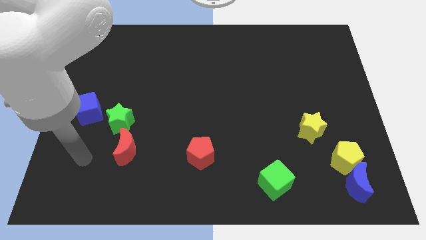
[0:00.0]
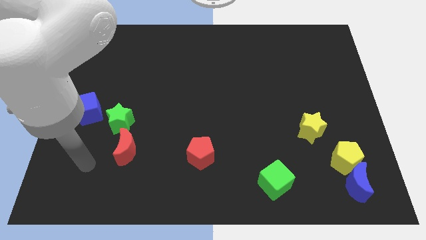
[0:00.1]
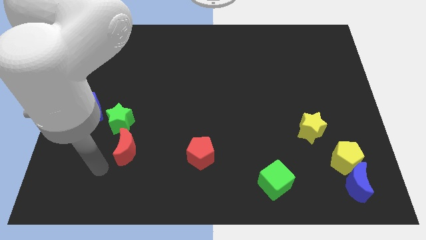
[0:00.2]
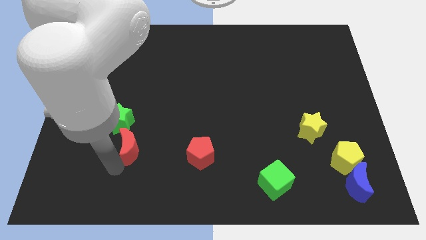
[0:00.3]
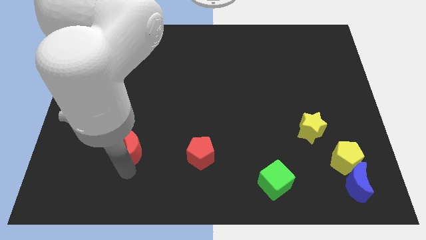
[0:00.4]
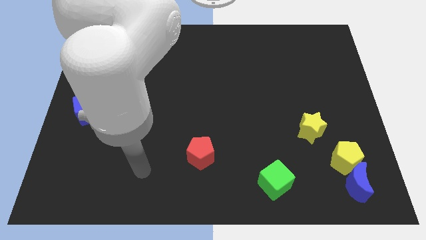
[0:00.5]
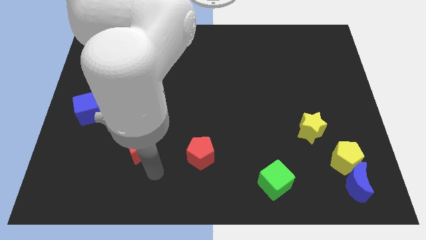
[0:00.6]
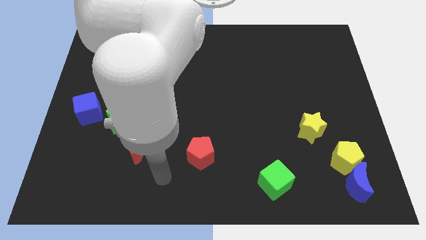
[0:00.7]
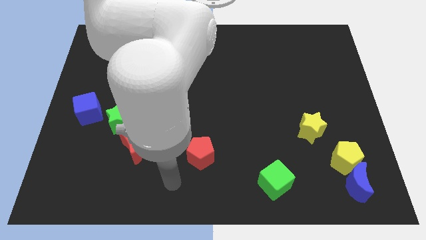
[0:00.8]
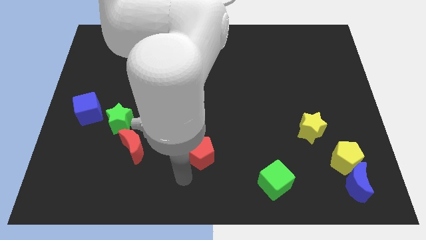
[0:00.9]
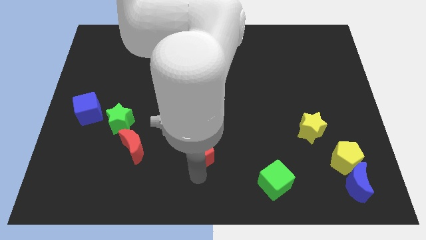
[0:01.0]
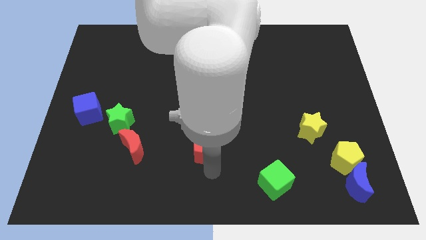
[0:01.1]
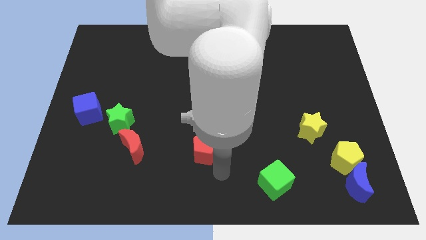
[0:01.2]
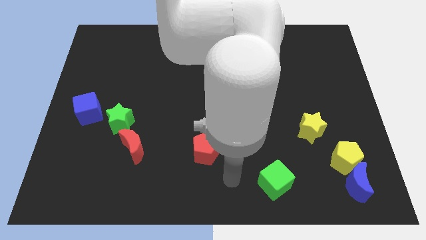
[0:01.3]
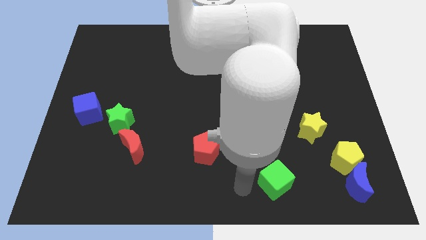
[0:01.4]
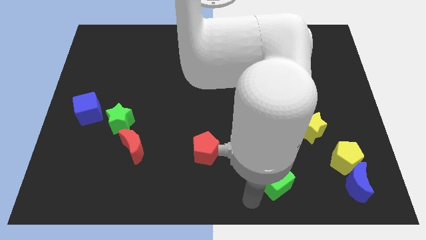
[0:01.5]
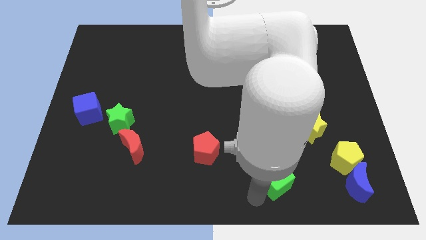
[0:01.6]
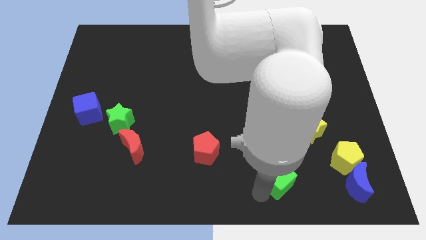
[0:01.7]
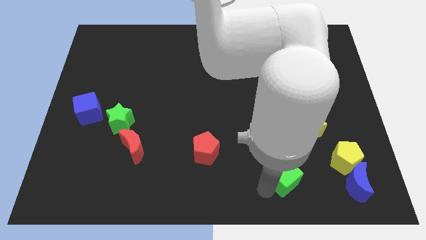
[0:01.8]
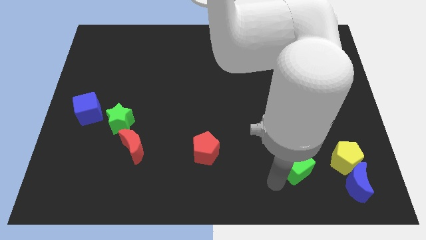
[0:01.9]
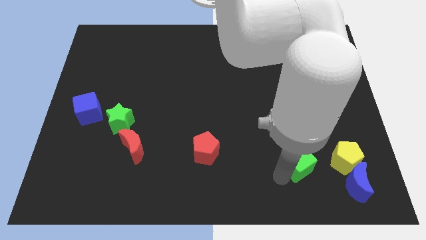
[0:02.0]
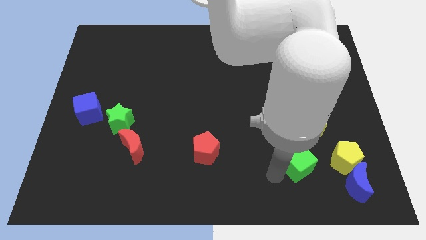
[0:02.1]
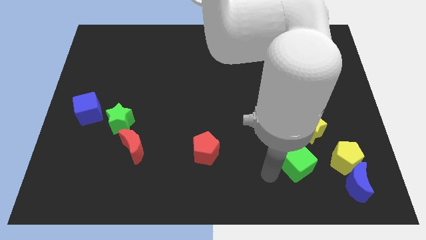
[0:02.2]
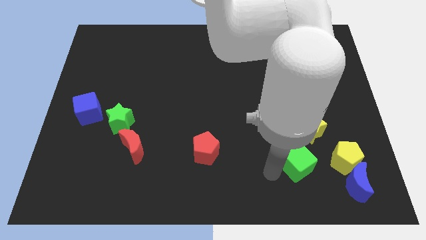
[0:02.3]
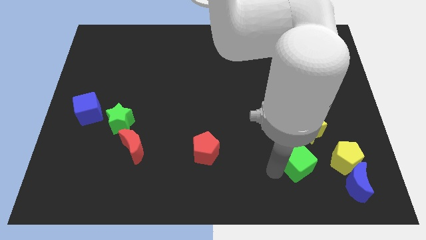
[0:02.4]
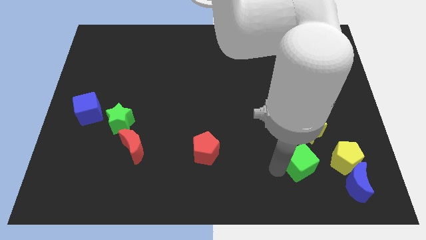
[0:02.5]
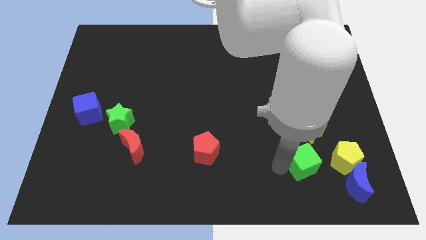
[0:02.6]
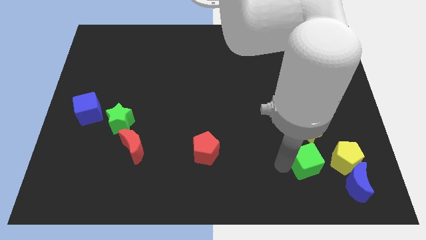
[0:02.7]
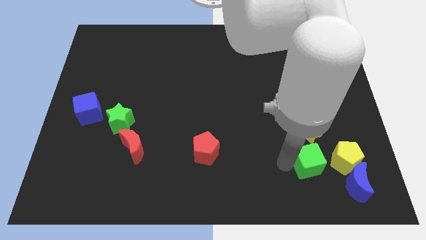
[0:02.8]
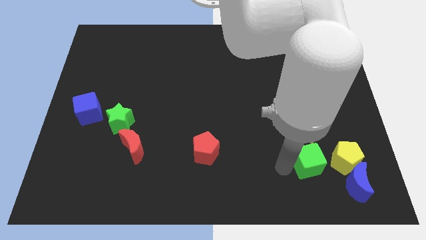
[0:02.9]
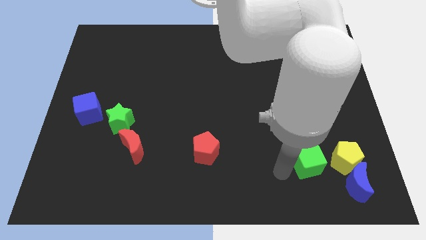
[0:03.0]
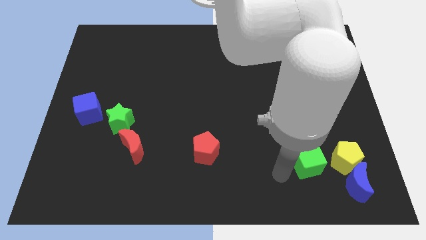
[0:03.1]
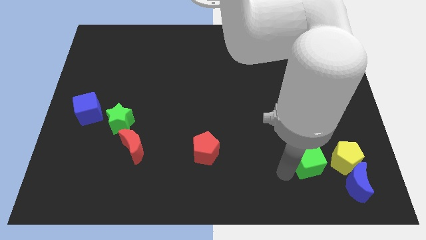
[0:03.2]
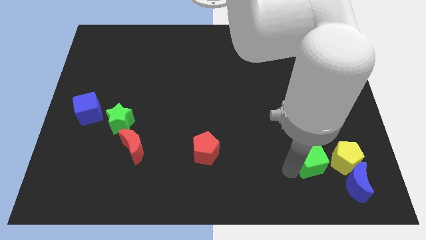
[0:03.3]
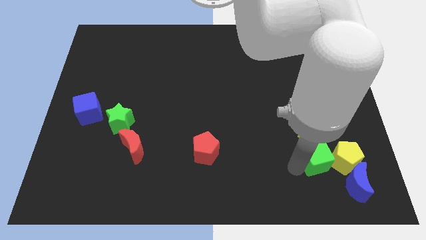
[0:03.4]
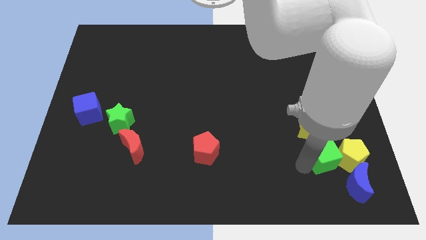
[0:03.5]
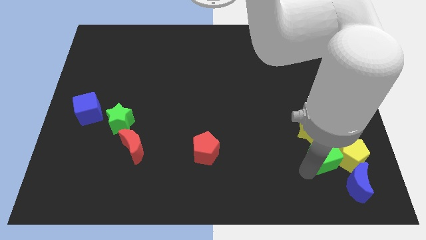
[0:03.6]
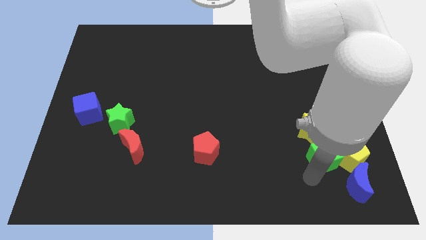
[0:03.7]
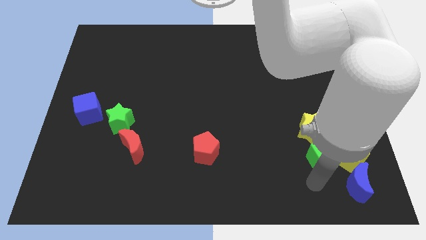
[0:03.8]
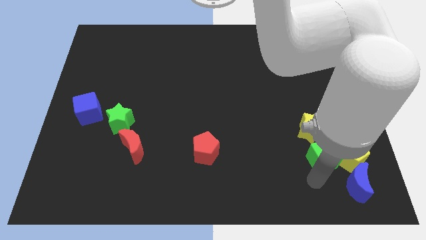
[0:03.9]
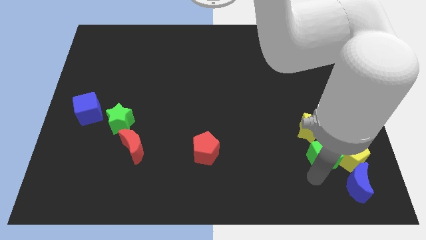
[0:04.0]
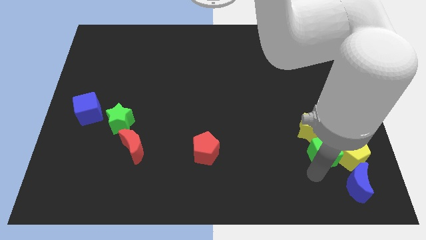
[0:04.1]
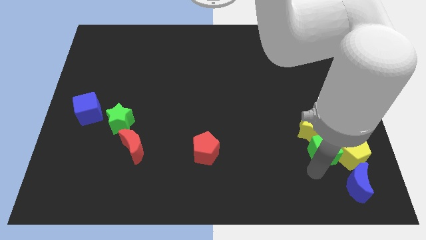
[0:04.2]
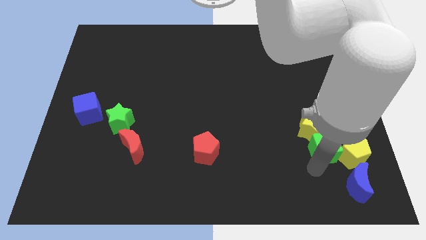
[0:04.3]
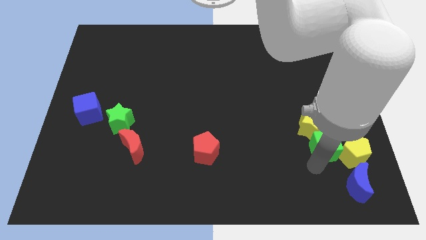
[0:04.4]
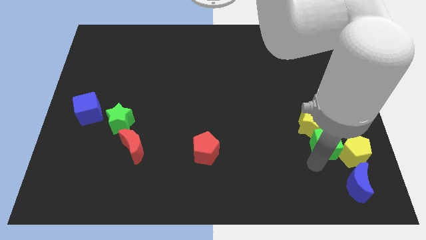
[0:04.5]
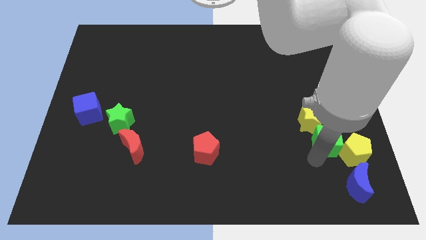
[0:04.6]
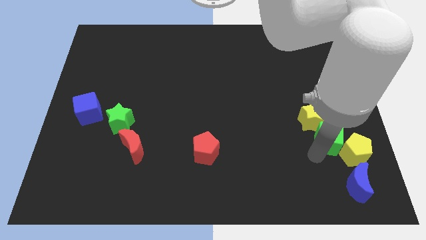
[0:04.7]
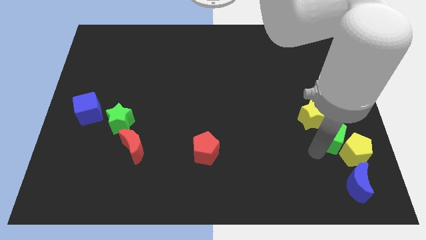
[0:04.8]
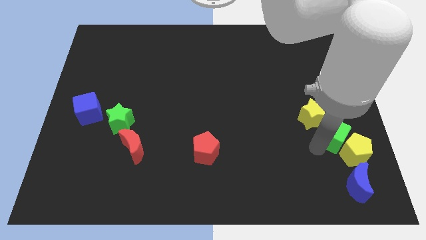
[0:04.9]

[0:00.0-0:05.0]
slide the green cube to the top of the yellow pentagon

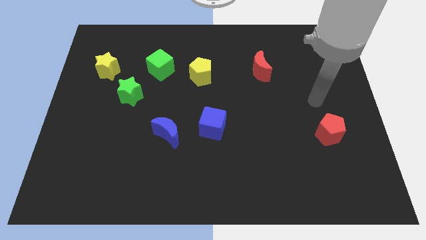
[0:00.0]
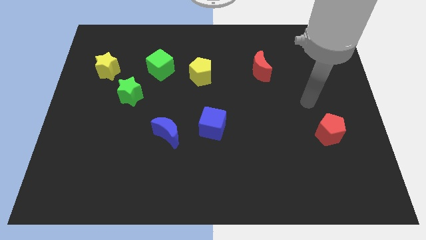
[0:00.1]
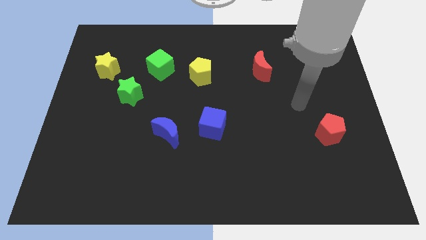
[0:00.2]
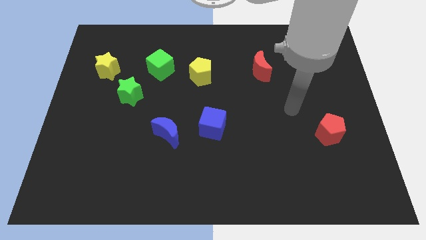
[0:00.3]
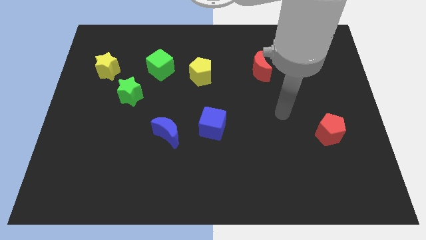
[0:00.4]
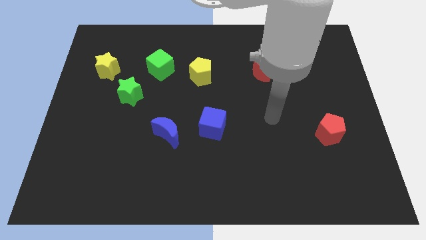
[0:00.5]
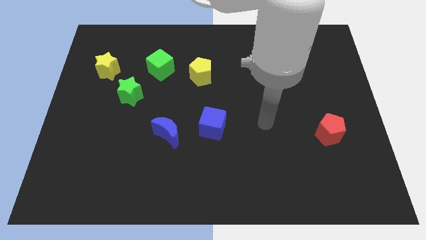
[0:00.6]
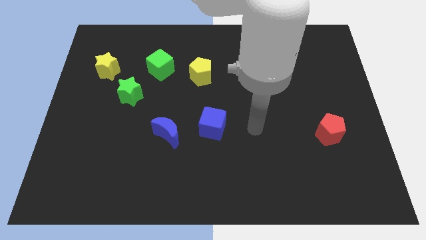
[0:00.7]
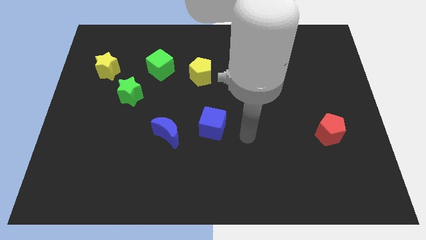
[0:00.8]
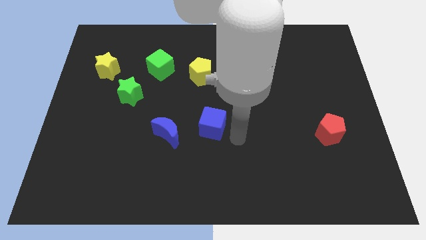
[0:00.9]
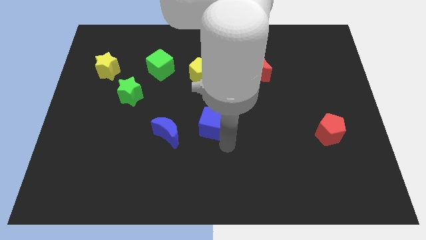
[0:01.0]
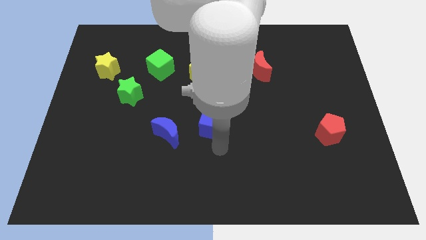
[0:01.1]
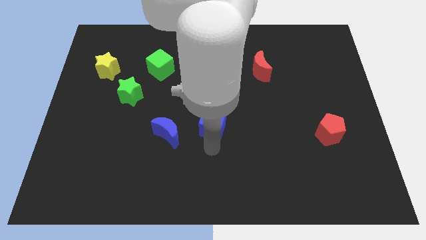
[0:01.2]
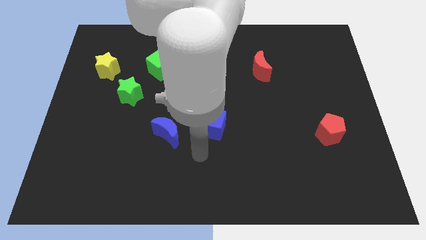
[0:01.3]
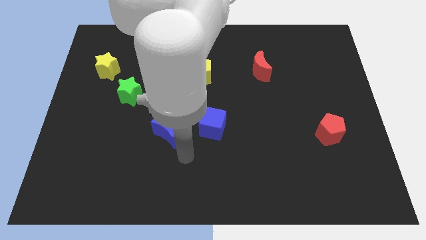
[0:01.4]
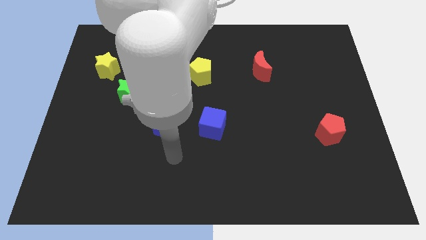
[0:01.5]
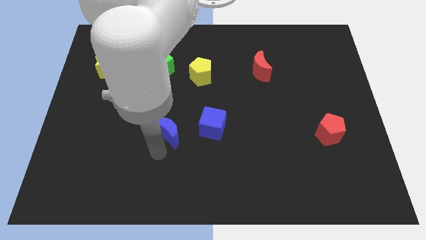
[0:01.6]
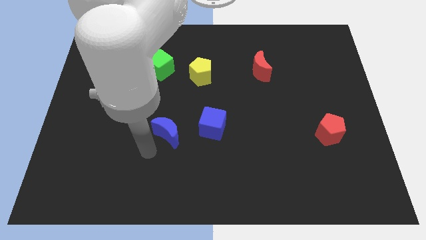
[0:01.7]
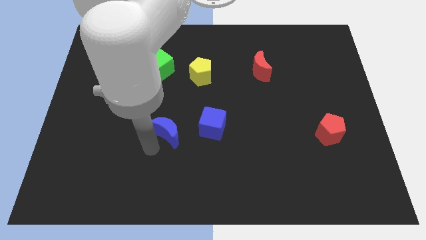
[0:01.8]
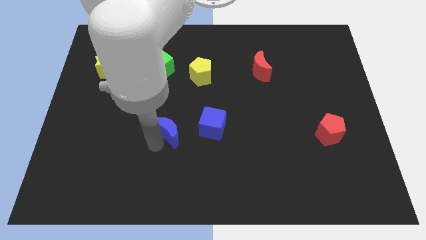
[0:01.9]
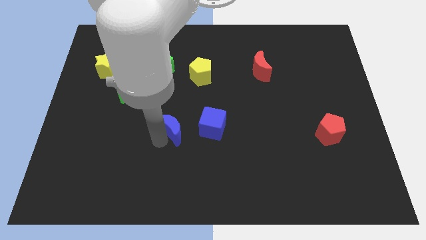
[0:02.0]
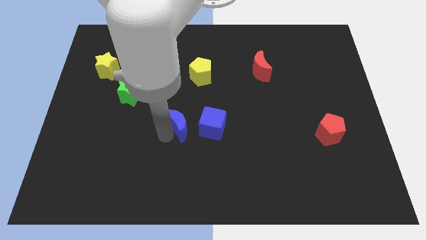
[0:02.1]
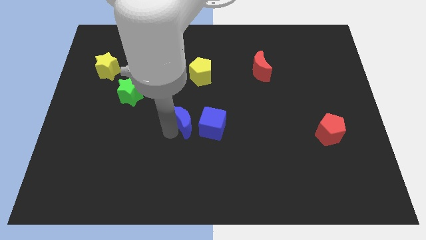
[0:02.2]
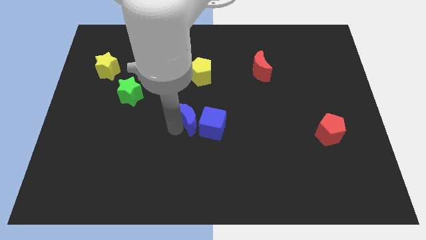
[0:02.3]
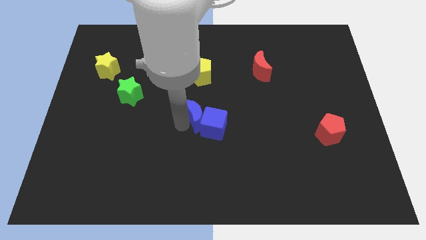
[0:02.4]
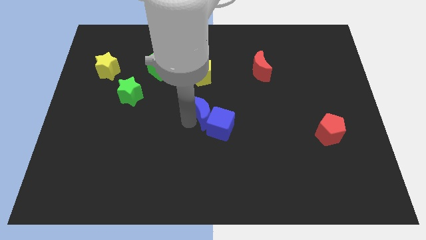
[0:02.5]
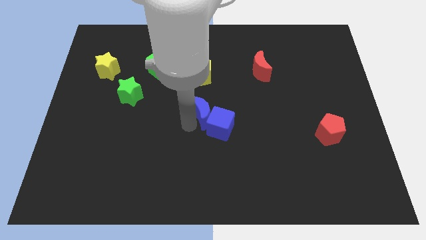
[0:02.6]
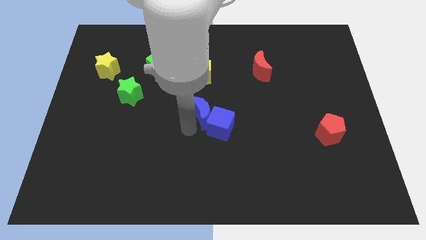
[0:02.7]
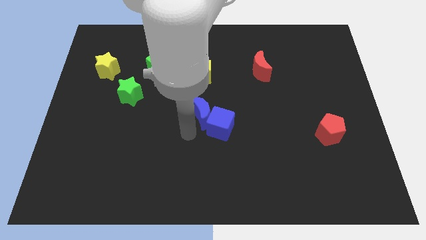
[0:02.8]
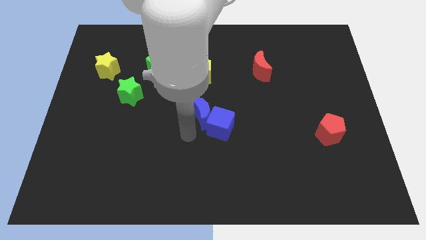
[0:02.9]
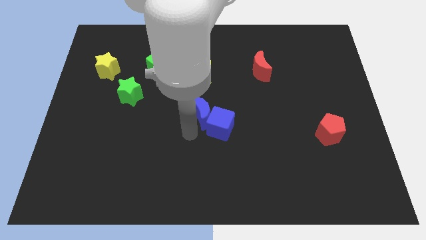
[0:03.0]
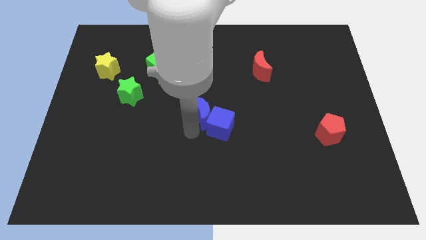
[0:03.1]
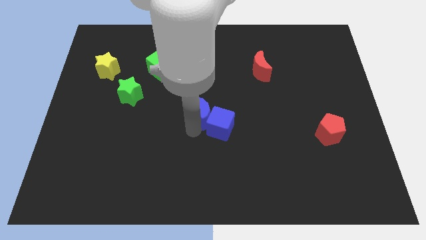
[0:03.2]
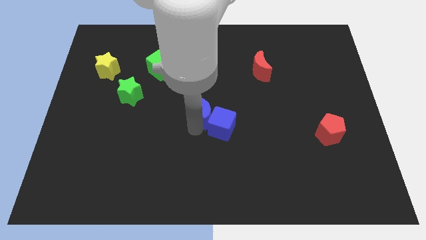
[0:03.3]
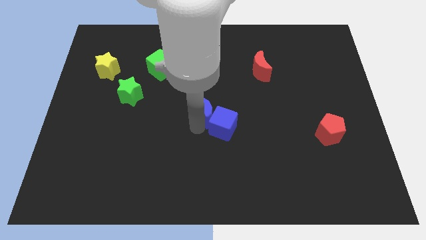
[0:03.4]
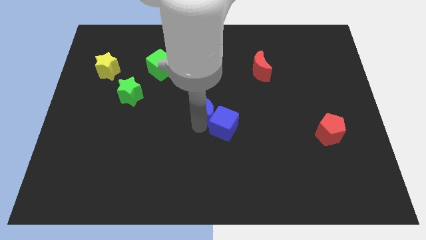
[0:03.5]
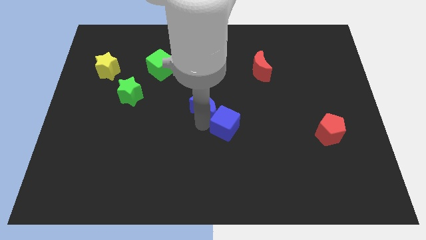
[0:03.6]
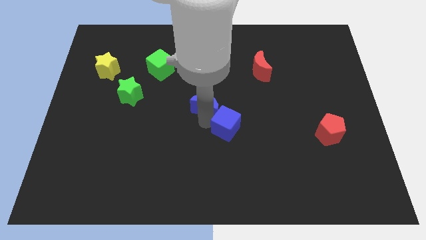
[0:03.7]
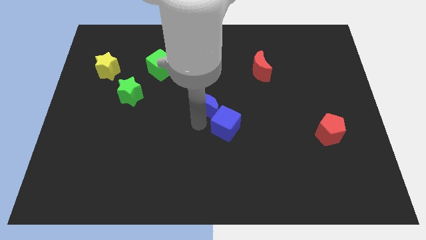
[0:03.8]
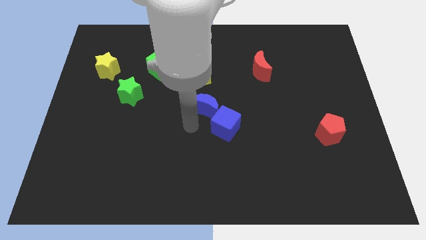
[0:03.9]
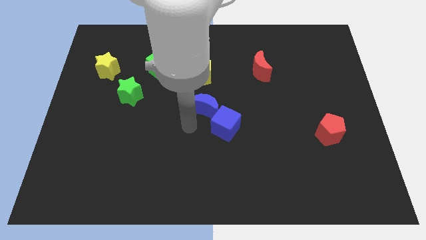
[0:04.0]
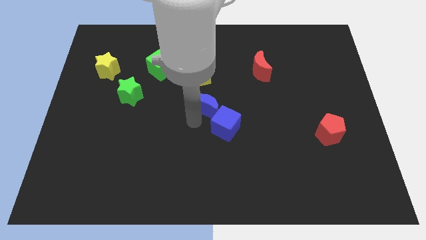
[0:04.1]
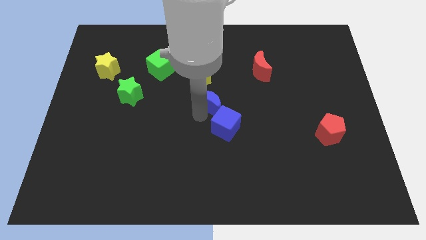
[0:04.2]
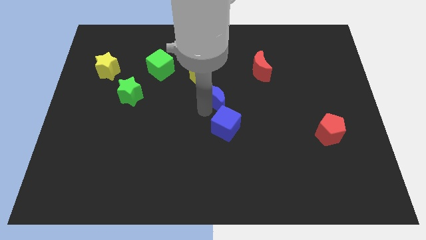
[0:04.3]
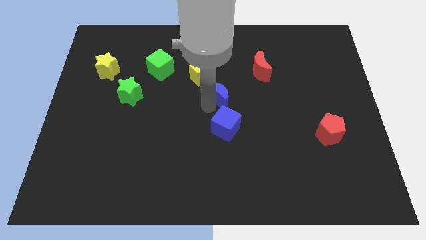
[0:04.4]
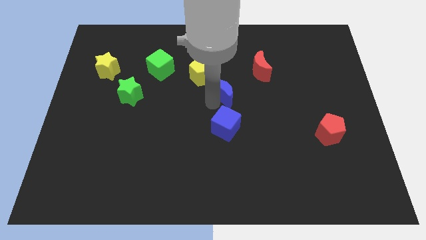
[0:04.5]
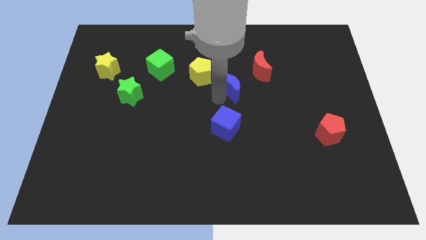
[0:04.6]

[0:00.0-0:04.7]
put the blue moon just right of the yellow pentagon
